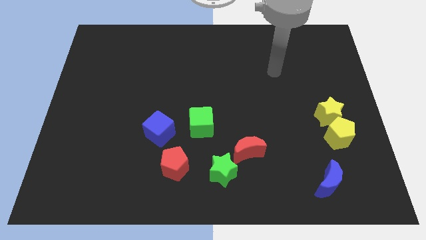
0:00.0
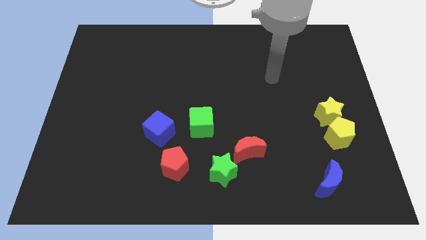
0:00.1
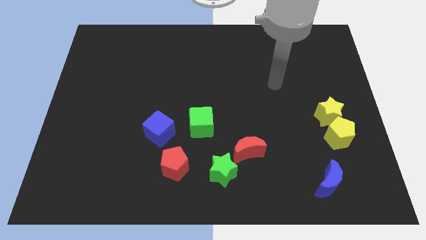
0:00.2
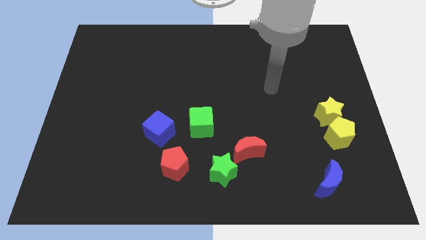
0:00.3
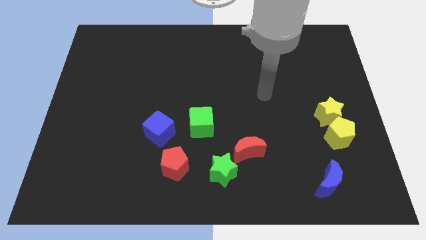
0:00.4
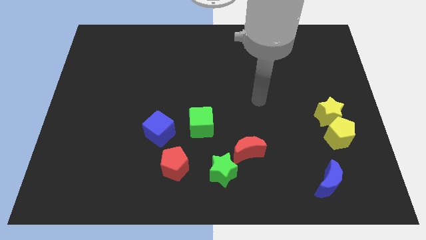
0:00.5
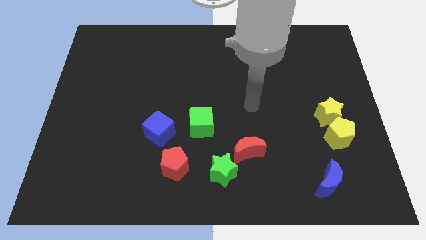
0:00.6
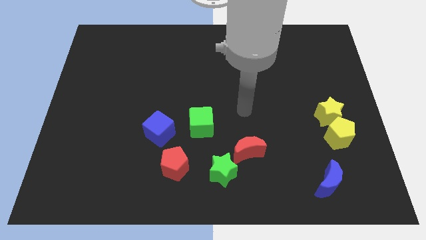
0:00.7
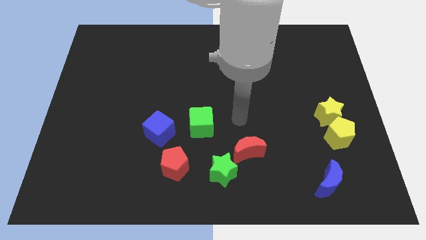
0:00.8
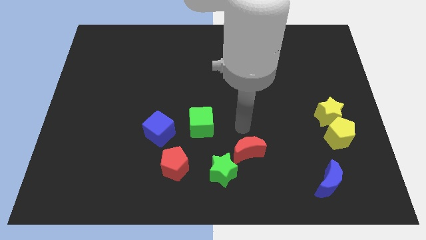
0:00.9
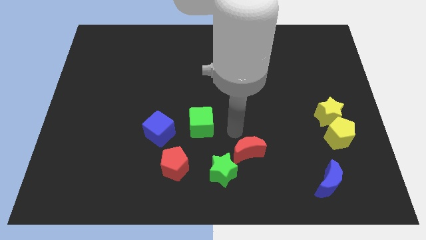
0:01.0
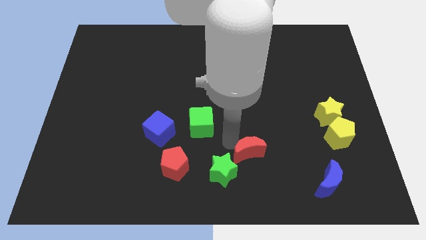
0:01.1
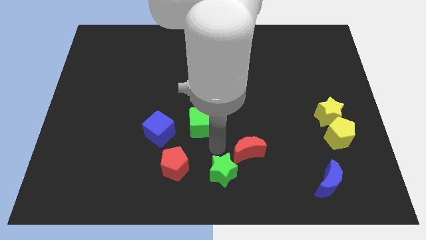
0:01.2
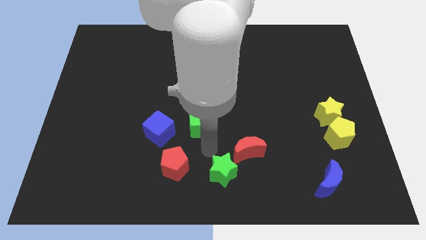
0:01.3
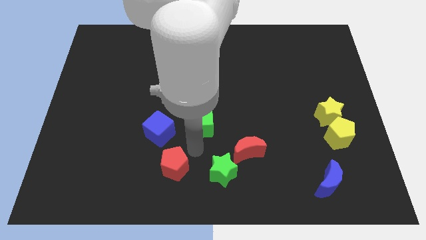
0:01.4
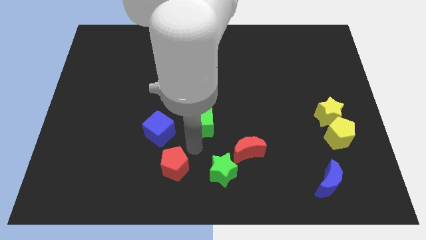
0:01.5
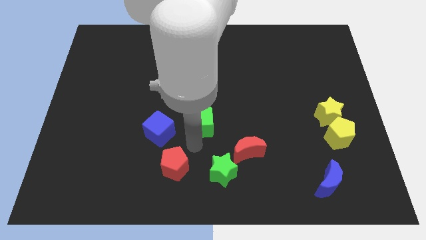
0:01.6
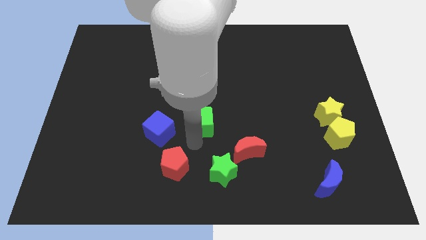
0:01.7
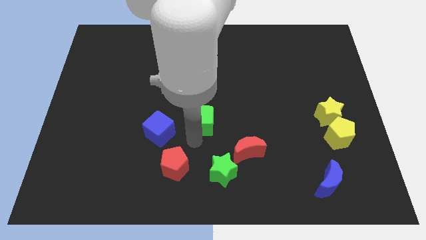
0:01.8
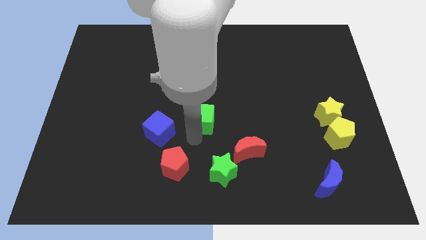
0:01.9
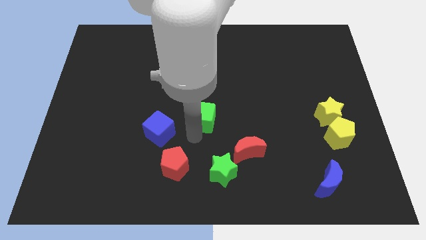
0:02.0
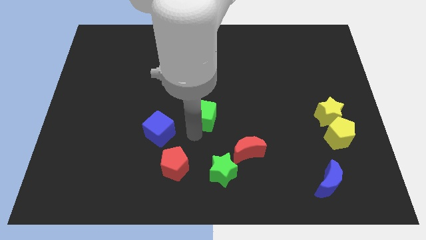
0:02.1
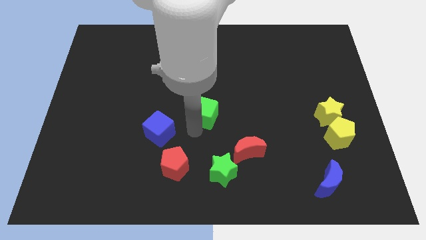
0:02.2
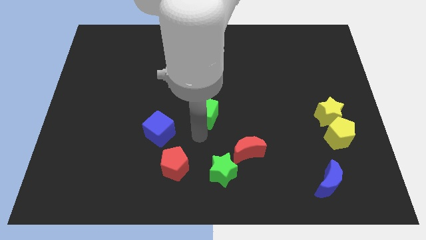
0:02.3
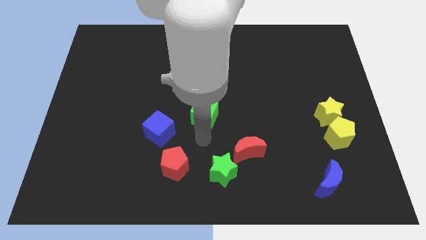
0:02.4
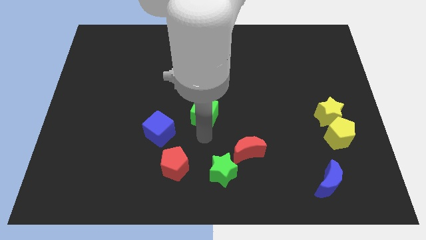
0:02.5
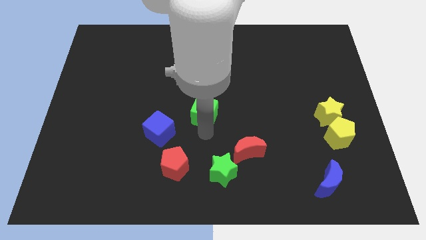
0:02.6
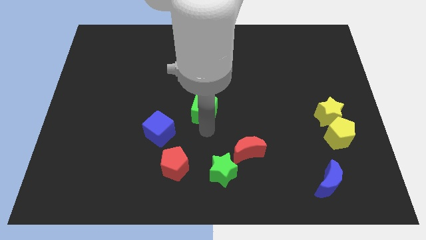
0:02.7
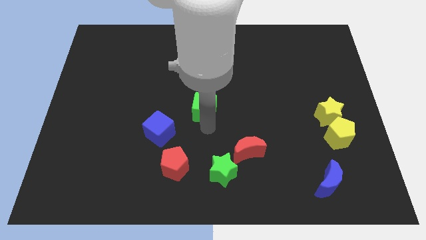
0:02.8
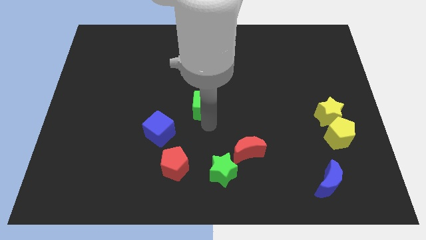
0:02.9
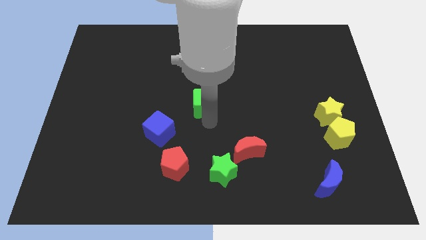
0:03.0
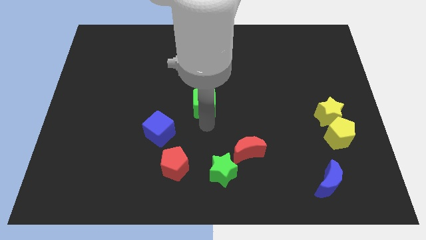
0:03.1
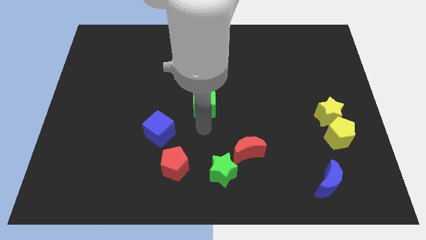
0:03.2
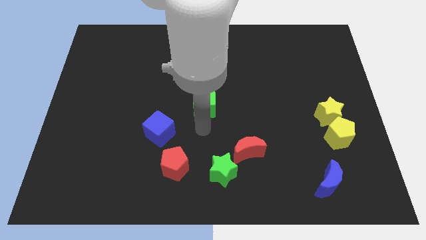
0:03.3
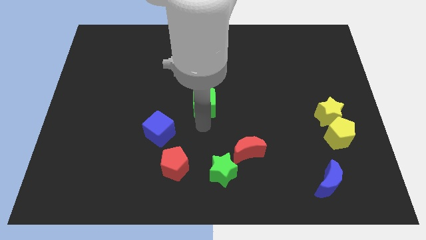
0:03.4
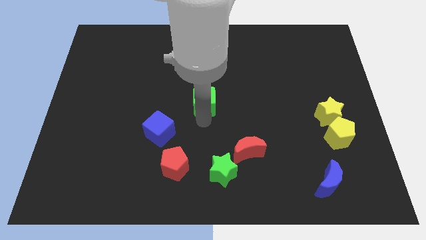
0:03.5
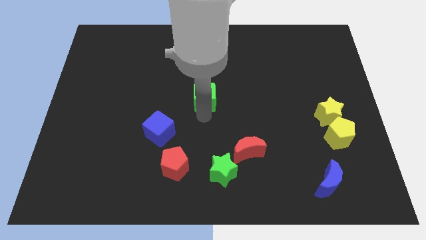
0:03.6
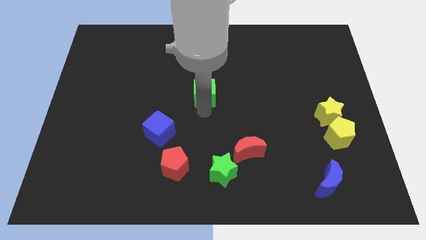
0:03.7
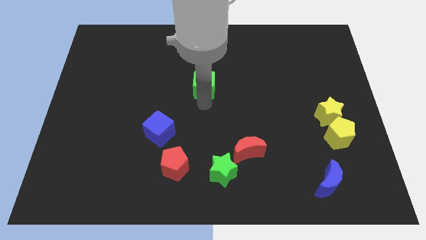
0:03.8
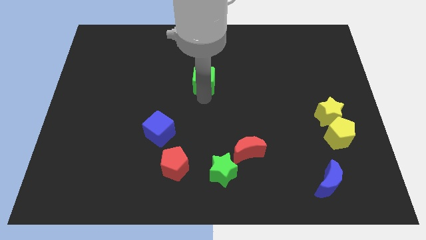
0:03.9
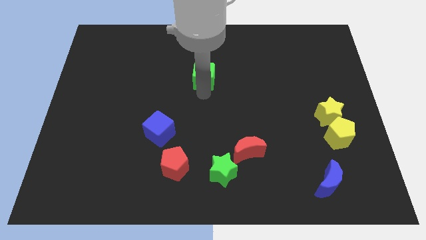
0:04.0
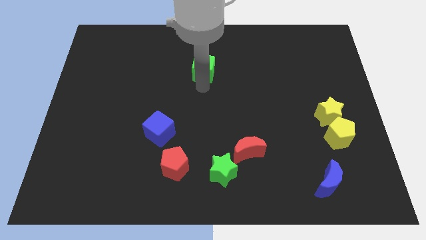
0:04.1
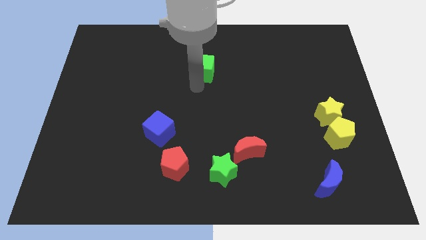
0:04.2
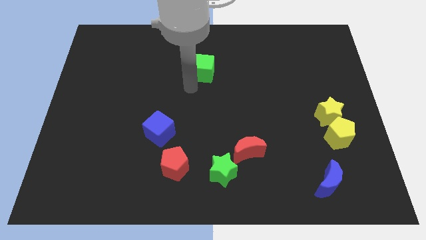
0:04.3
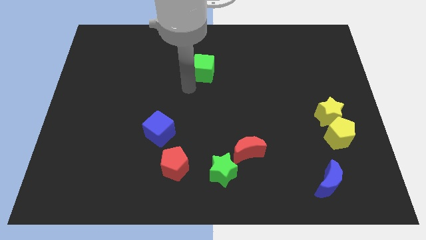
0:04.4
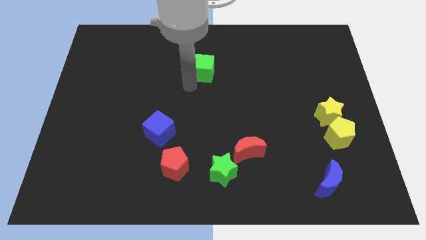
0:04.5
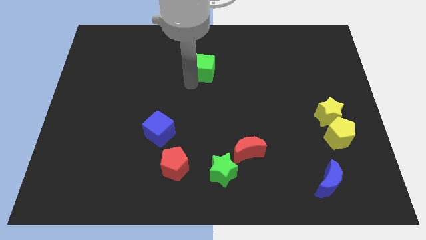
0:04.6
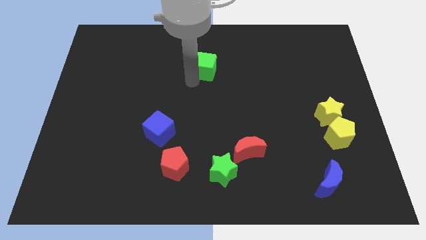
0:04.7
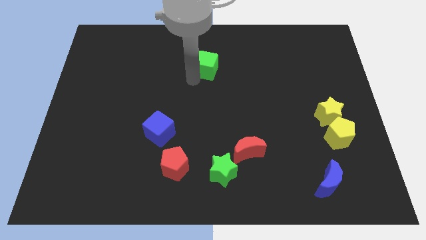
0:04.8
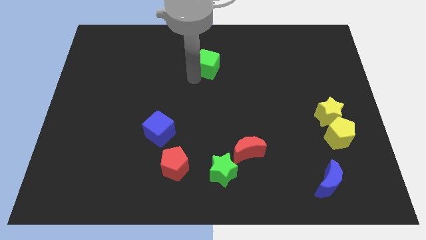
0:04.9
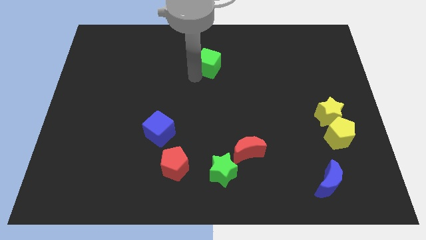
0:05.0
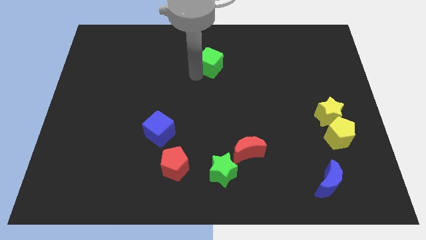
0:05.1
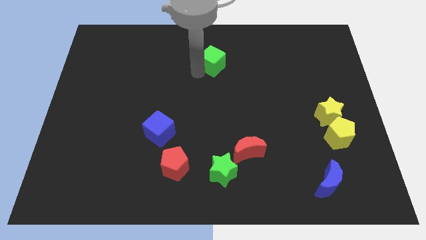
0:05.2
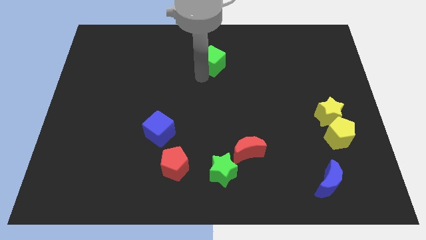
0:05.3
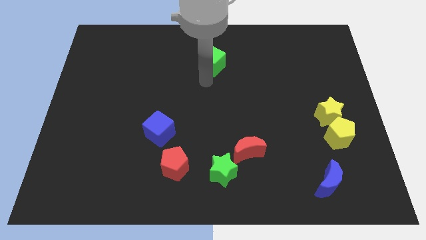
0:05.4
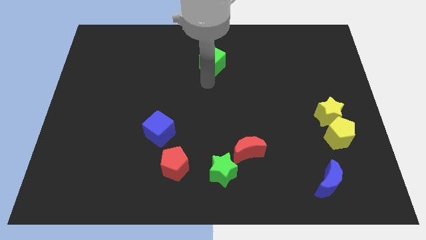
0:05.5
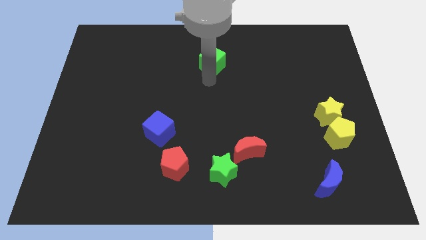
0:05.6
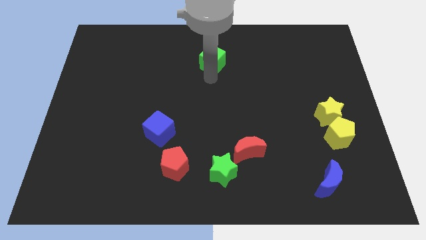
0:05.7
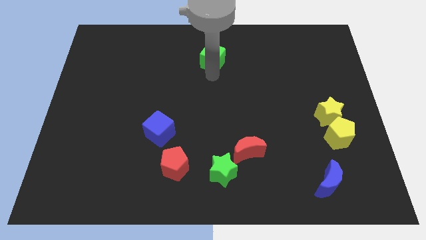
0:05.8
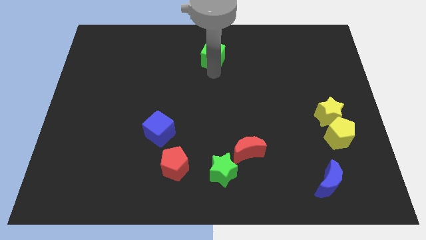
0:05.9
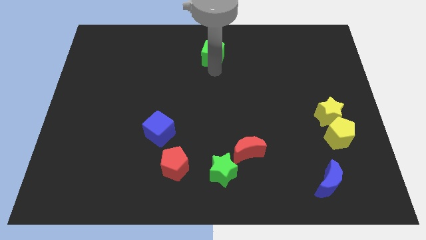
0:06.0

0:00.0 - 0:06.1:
push the green cube to the top side
